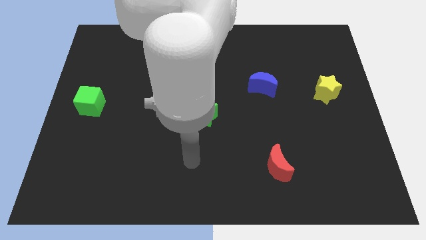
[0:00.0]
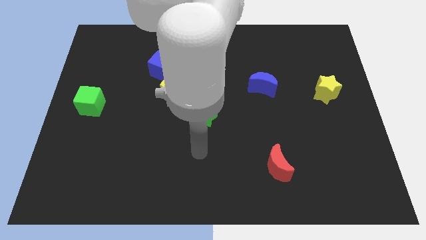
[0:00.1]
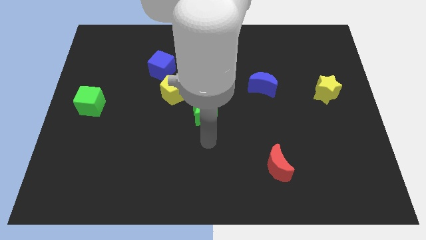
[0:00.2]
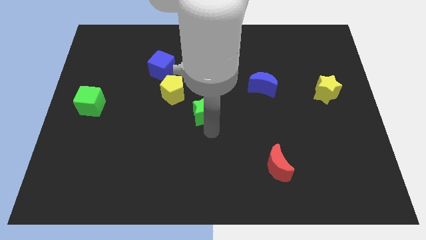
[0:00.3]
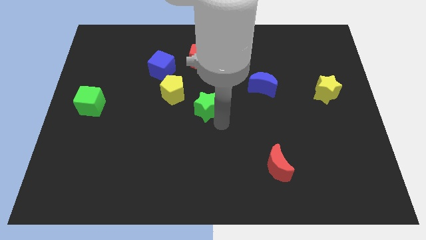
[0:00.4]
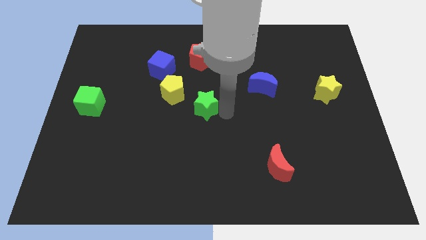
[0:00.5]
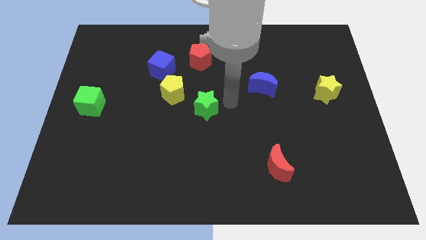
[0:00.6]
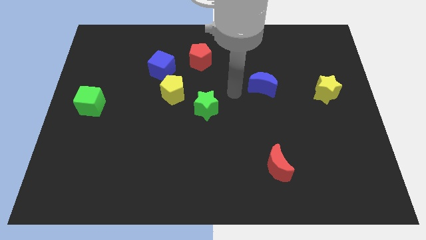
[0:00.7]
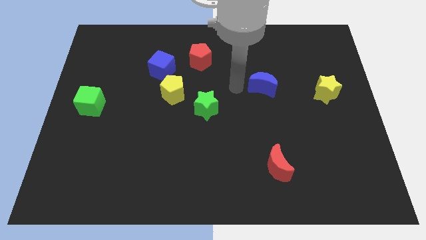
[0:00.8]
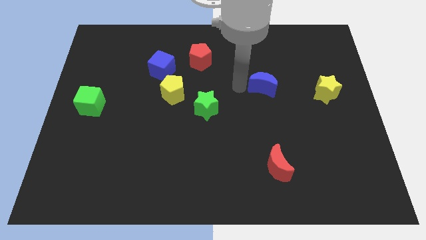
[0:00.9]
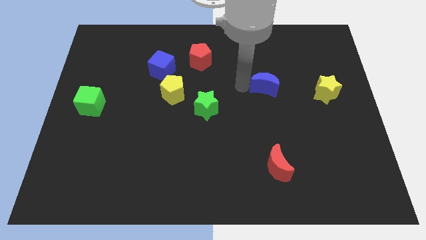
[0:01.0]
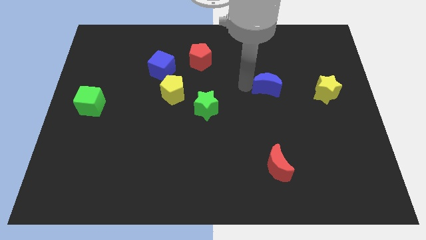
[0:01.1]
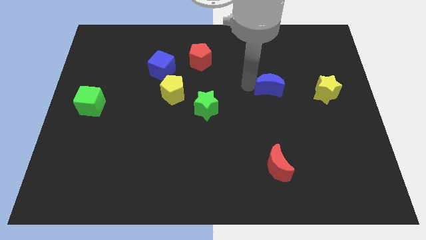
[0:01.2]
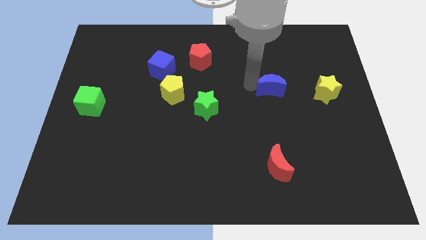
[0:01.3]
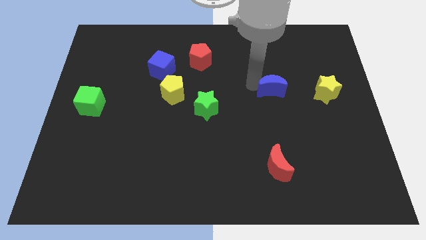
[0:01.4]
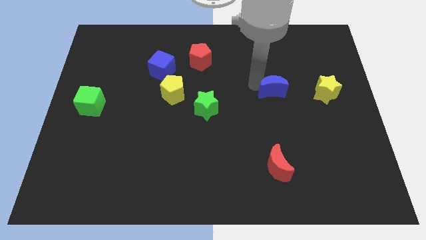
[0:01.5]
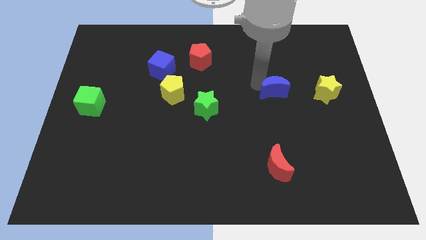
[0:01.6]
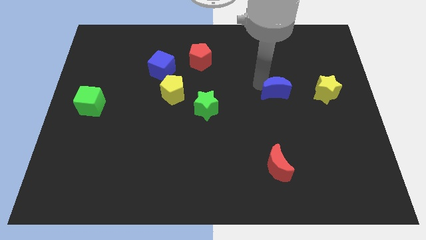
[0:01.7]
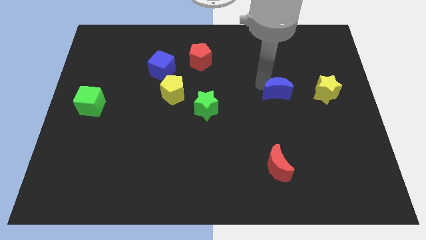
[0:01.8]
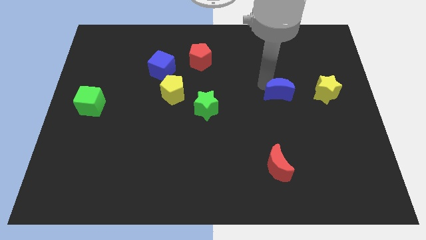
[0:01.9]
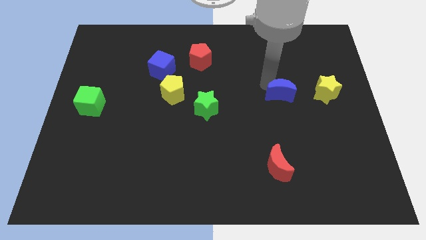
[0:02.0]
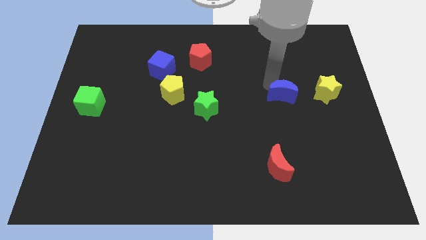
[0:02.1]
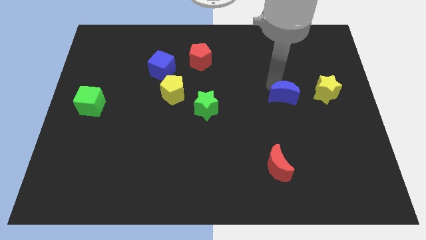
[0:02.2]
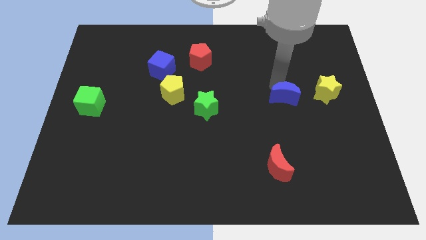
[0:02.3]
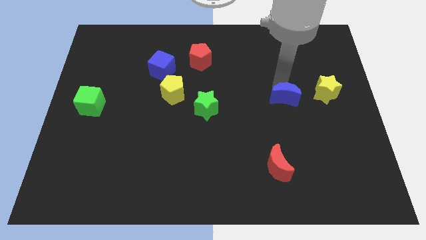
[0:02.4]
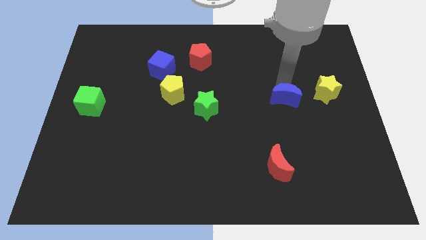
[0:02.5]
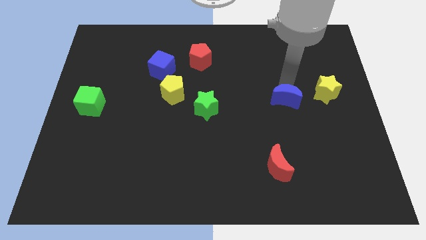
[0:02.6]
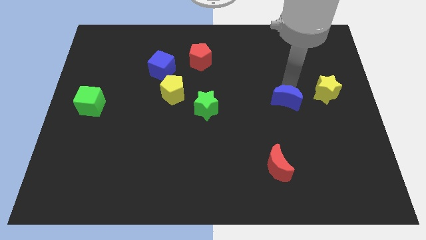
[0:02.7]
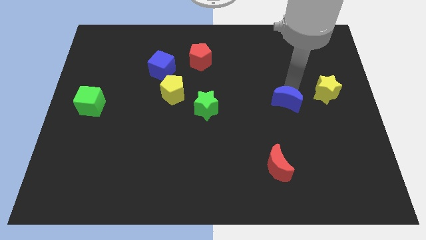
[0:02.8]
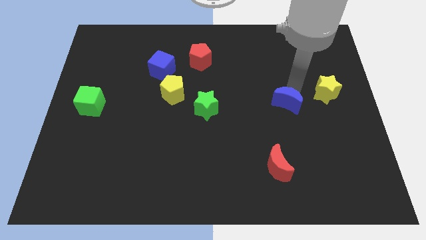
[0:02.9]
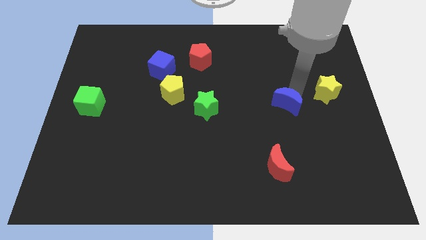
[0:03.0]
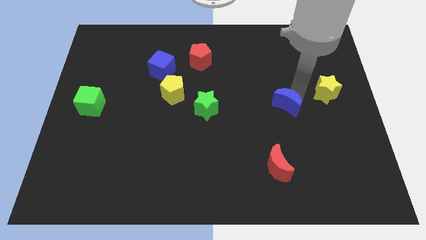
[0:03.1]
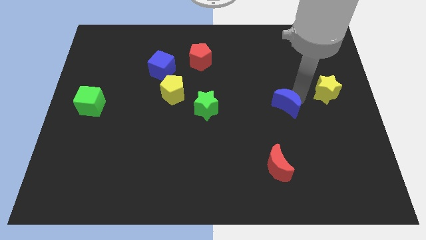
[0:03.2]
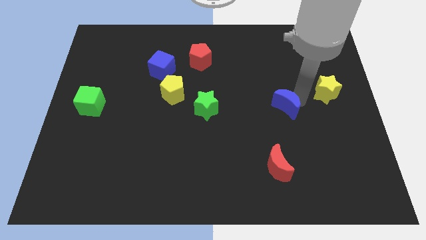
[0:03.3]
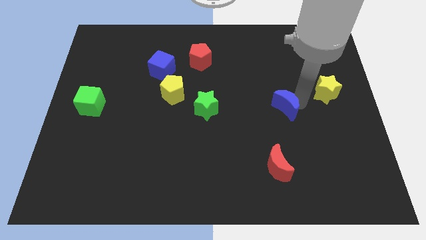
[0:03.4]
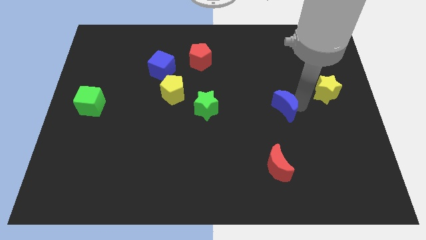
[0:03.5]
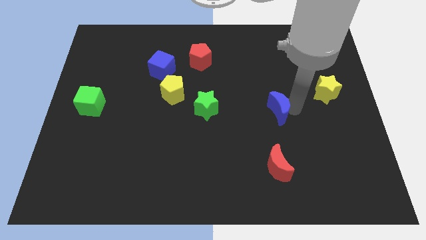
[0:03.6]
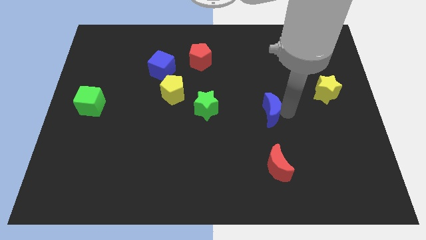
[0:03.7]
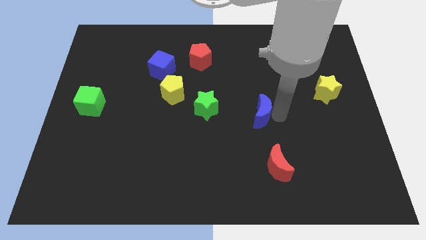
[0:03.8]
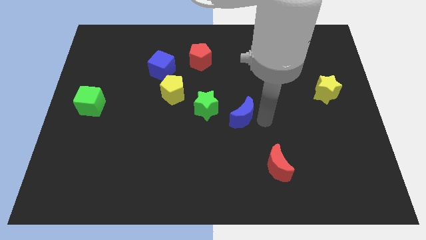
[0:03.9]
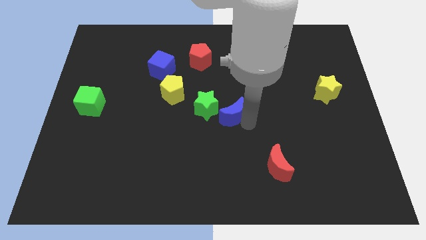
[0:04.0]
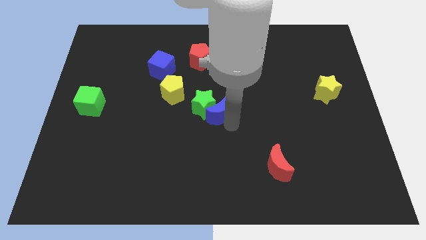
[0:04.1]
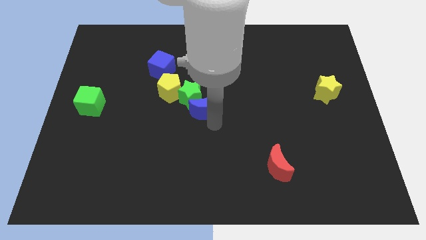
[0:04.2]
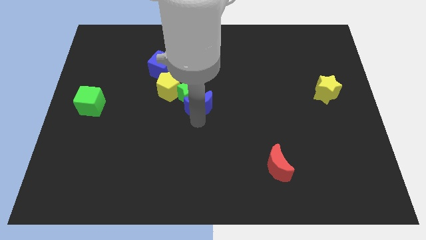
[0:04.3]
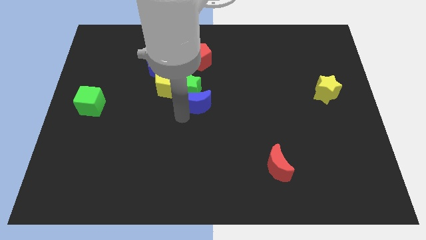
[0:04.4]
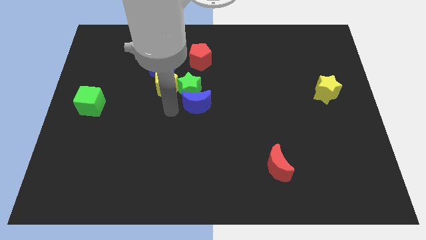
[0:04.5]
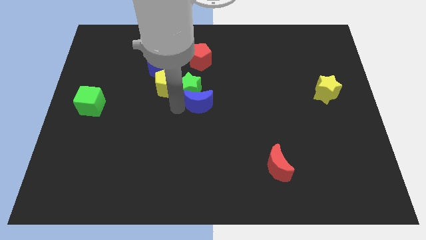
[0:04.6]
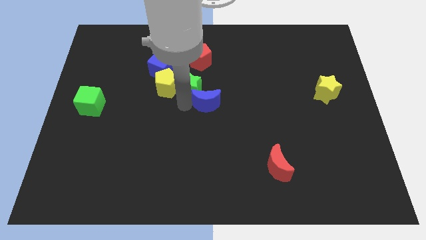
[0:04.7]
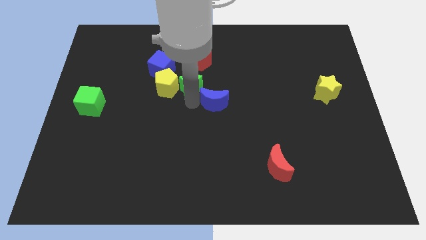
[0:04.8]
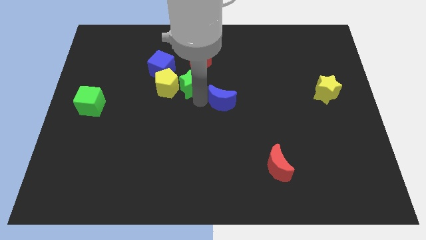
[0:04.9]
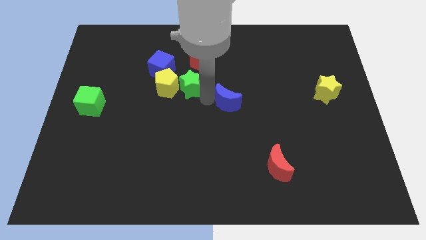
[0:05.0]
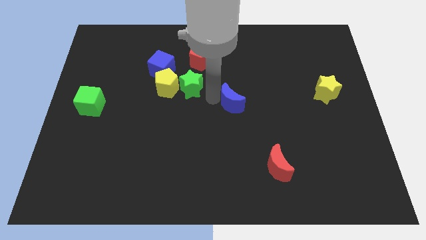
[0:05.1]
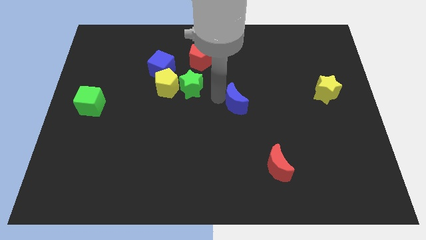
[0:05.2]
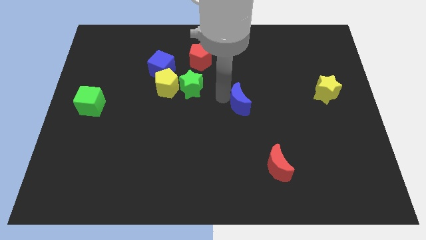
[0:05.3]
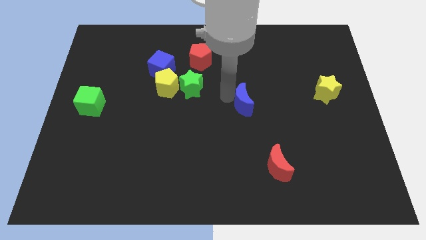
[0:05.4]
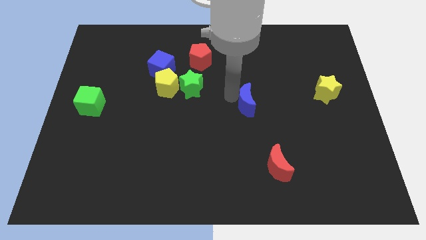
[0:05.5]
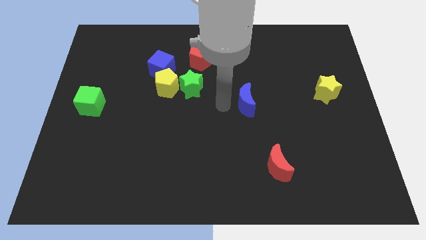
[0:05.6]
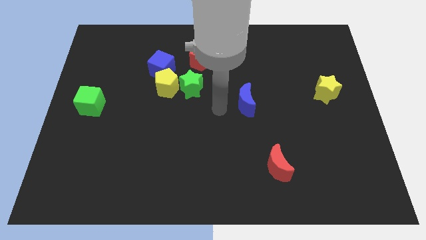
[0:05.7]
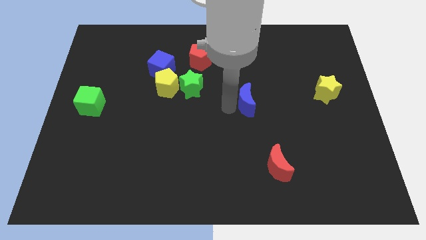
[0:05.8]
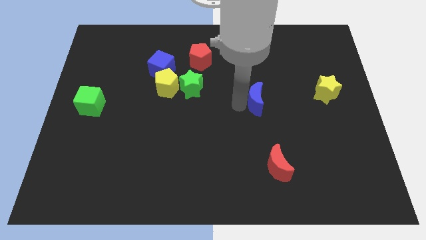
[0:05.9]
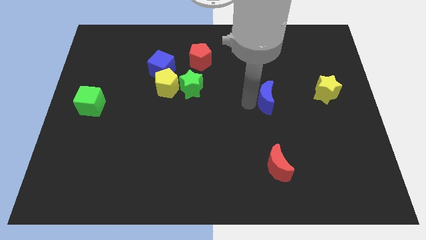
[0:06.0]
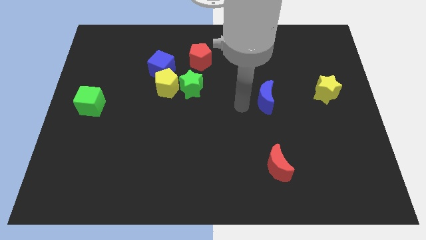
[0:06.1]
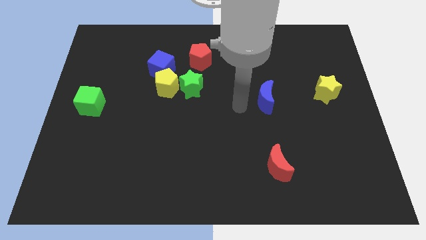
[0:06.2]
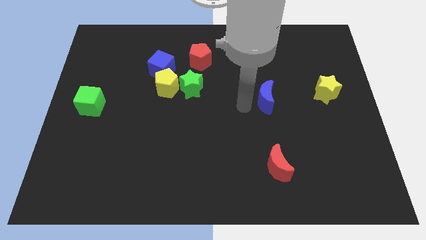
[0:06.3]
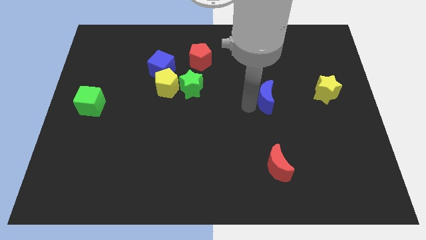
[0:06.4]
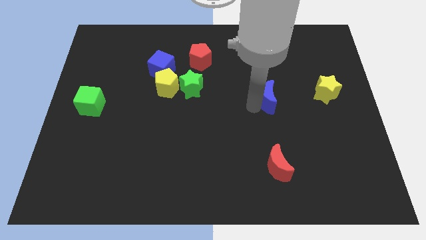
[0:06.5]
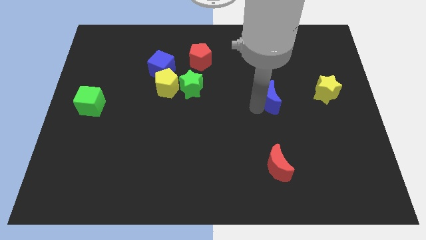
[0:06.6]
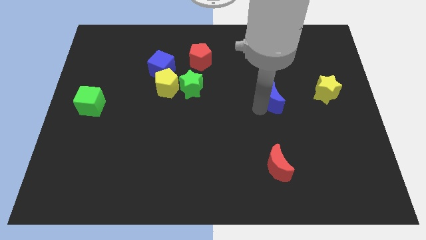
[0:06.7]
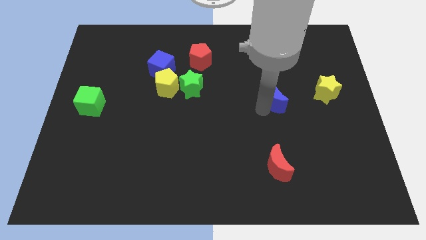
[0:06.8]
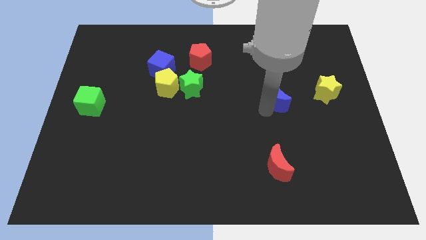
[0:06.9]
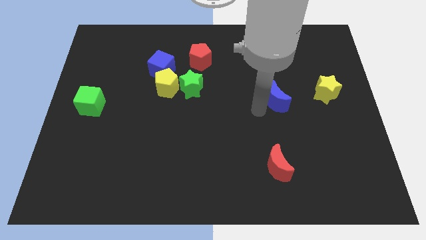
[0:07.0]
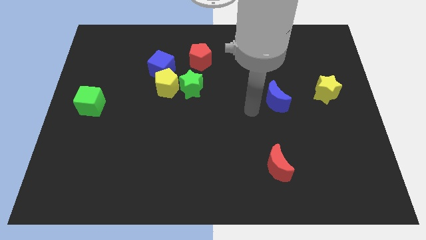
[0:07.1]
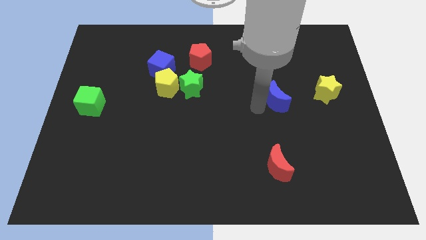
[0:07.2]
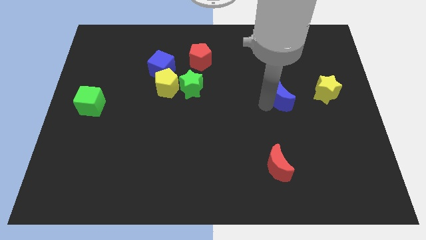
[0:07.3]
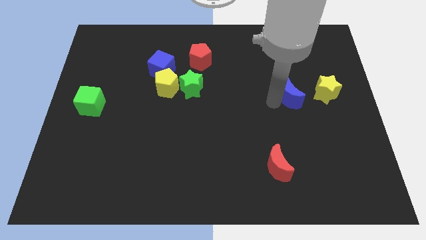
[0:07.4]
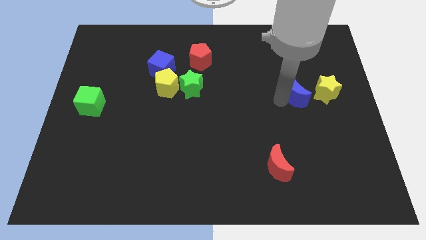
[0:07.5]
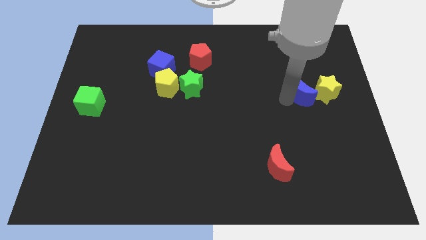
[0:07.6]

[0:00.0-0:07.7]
move the blue moon to the yellow star
